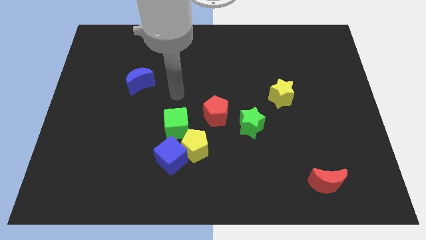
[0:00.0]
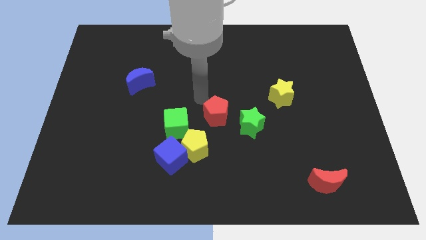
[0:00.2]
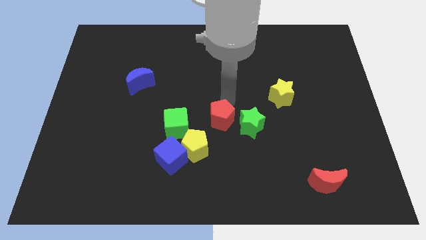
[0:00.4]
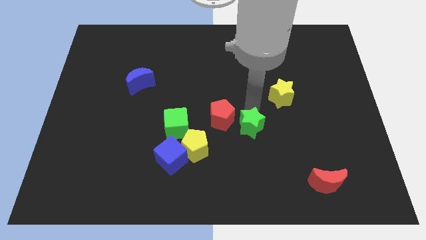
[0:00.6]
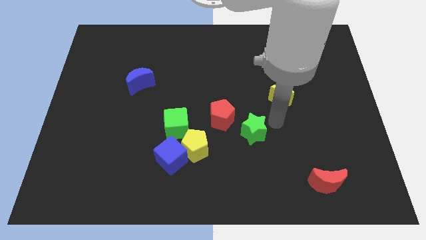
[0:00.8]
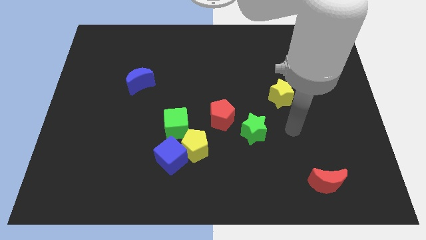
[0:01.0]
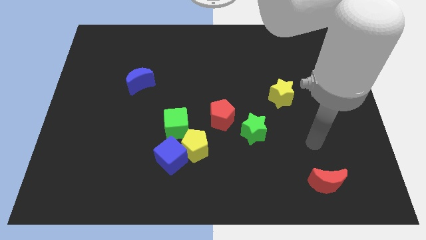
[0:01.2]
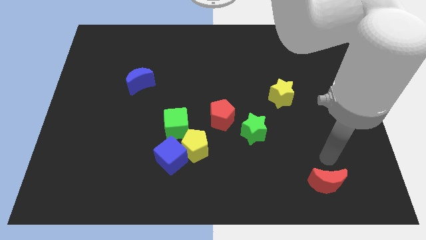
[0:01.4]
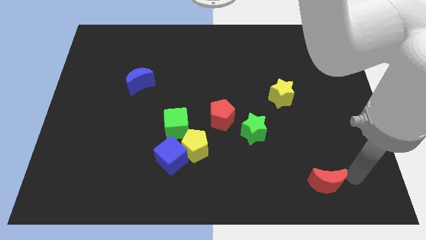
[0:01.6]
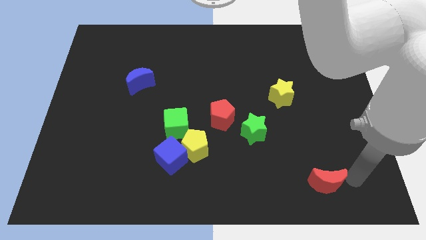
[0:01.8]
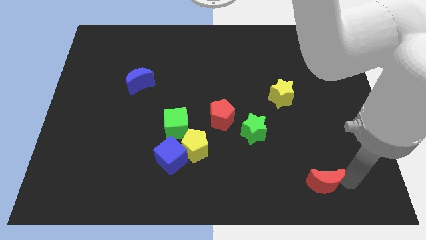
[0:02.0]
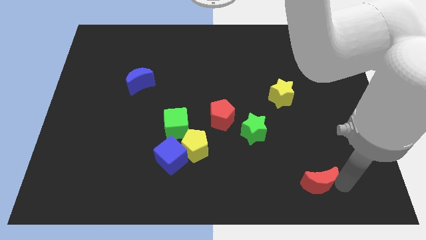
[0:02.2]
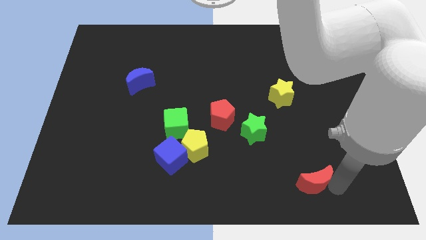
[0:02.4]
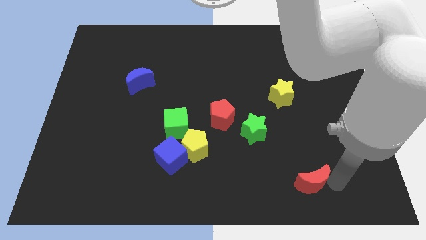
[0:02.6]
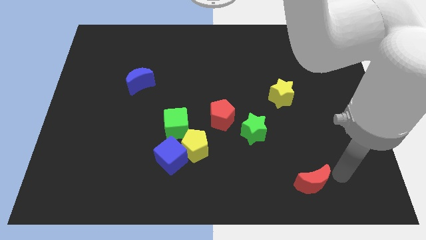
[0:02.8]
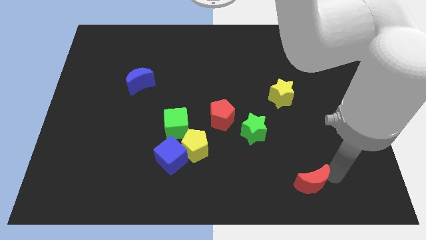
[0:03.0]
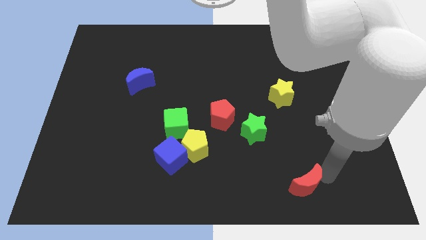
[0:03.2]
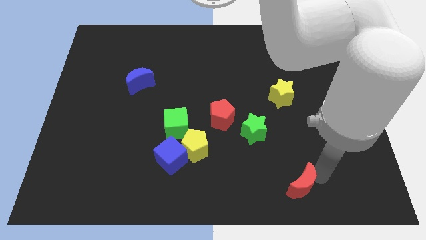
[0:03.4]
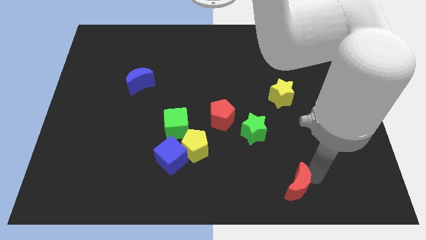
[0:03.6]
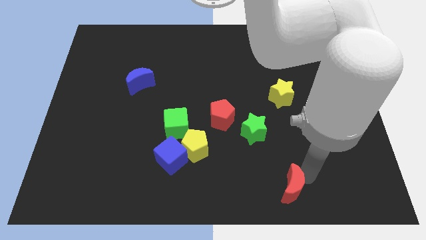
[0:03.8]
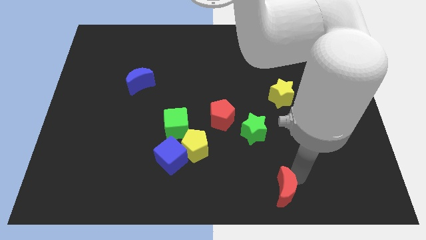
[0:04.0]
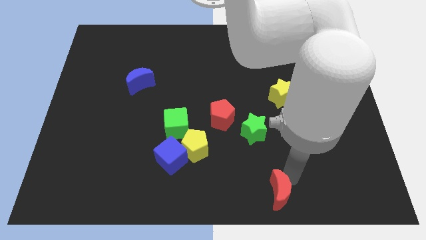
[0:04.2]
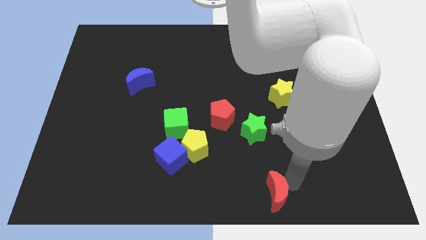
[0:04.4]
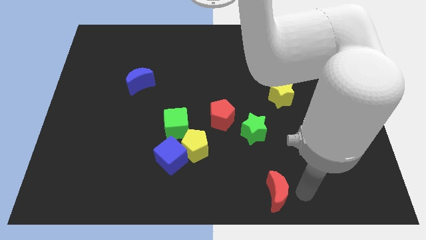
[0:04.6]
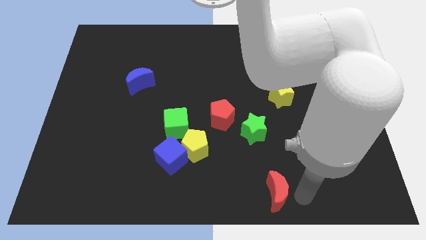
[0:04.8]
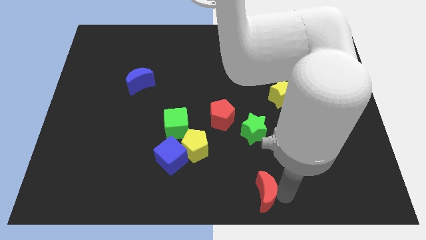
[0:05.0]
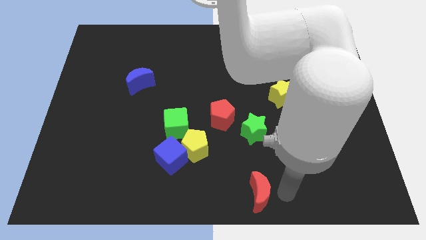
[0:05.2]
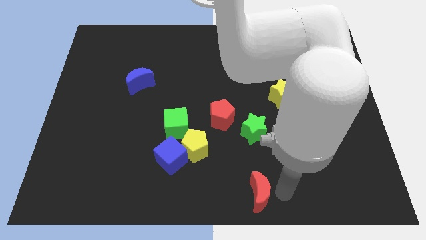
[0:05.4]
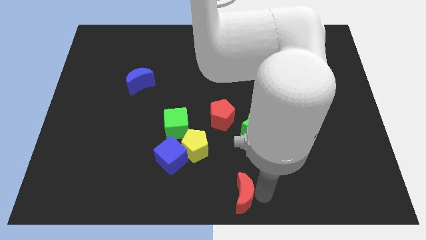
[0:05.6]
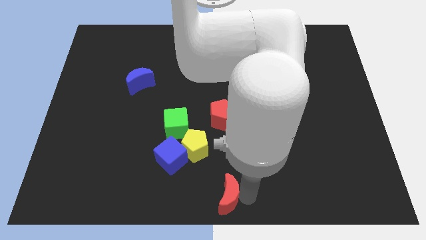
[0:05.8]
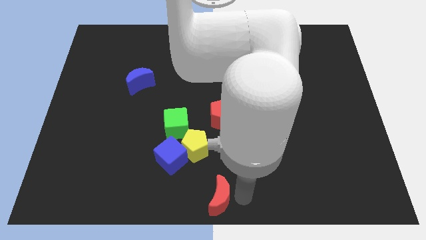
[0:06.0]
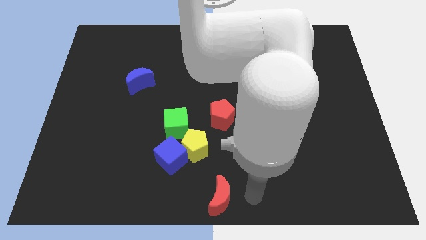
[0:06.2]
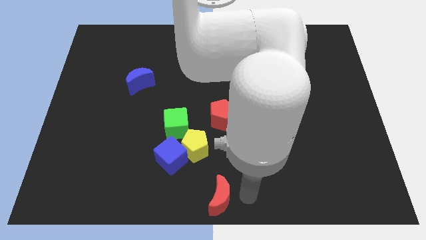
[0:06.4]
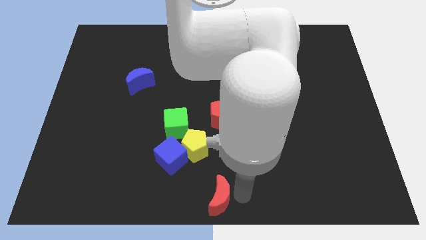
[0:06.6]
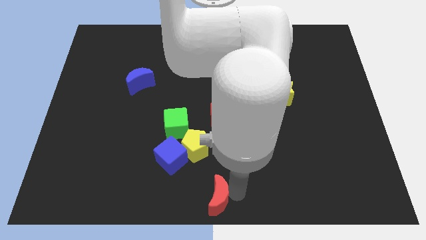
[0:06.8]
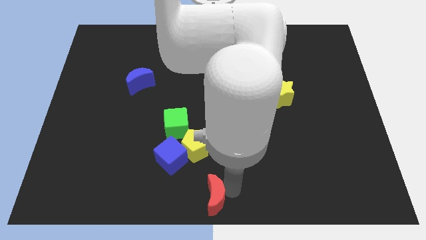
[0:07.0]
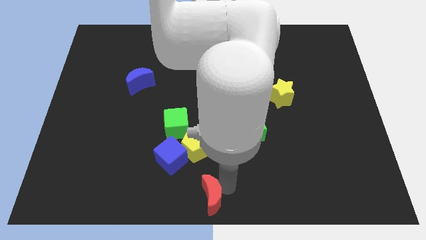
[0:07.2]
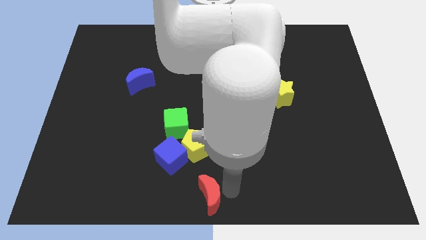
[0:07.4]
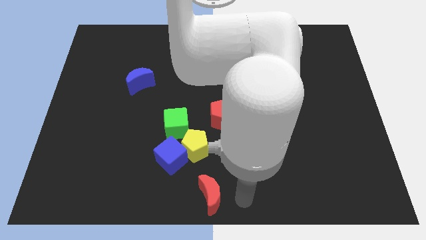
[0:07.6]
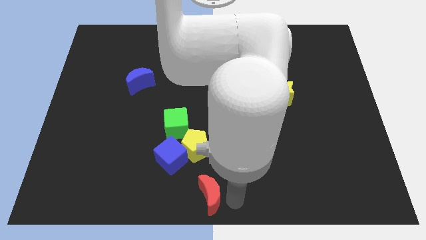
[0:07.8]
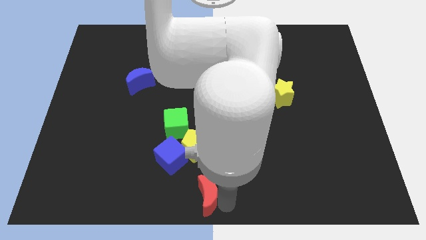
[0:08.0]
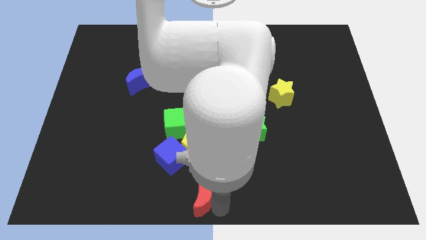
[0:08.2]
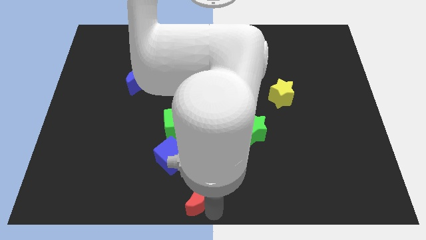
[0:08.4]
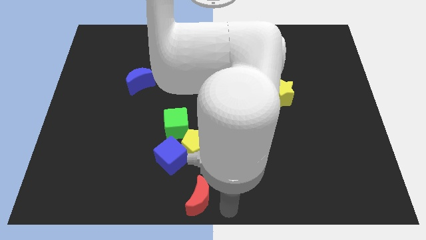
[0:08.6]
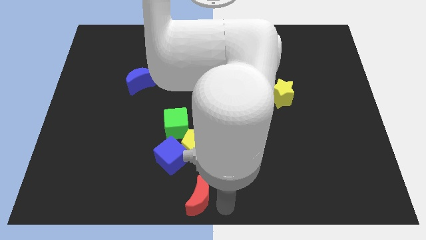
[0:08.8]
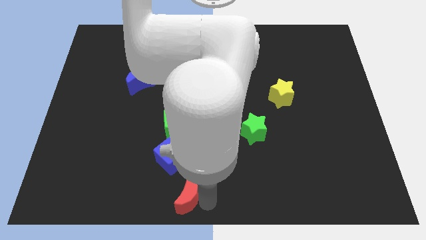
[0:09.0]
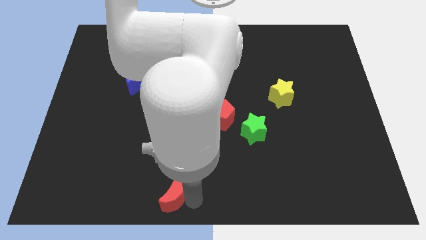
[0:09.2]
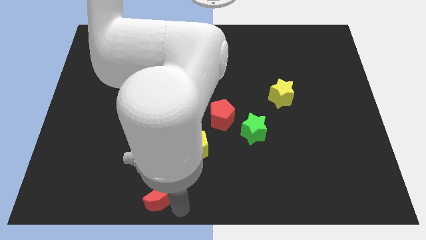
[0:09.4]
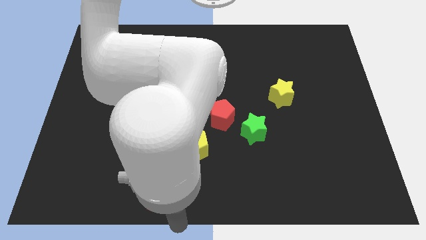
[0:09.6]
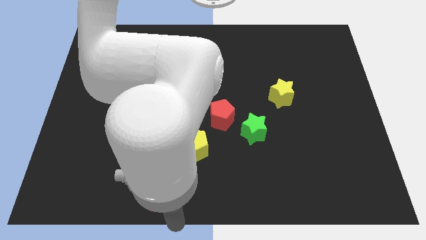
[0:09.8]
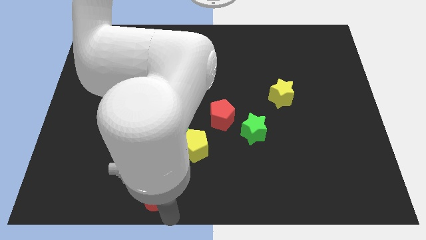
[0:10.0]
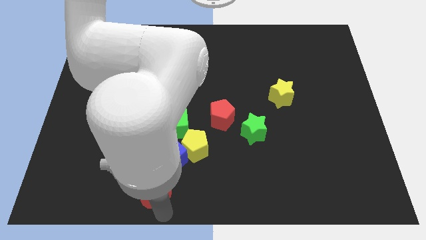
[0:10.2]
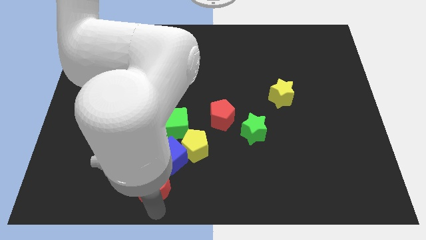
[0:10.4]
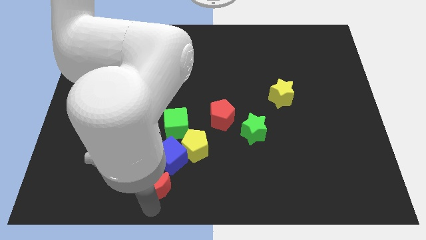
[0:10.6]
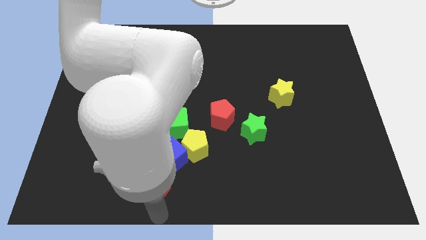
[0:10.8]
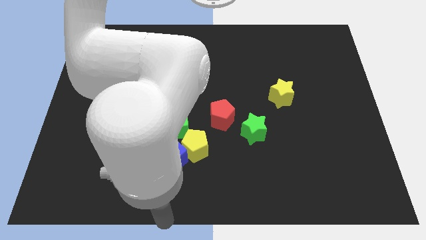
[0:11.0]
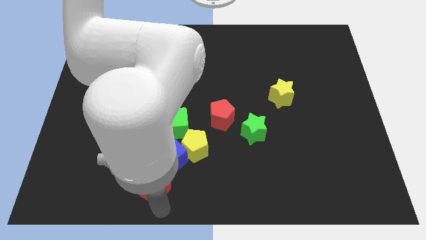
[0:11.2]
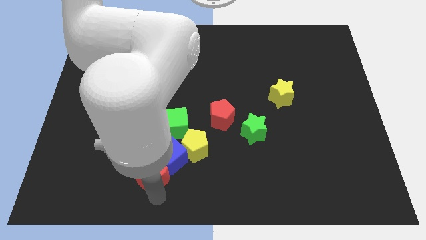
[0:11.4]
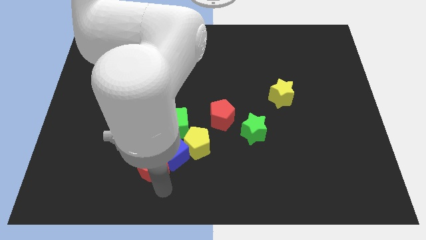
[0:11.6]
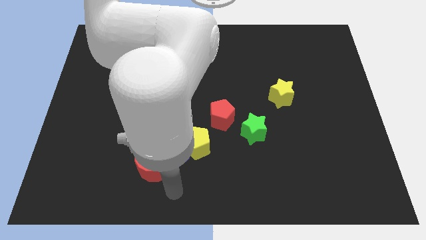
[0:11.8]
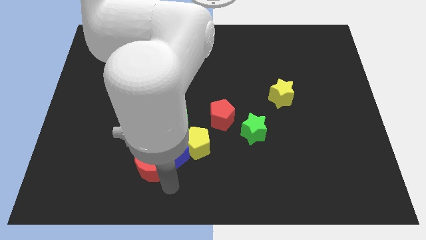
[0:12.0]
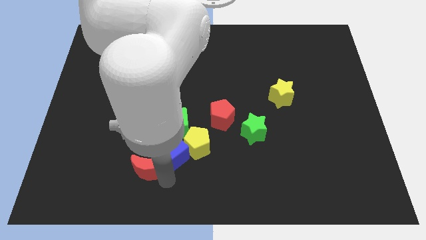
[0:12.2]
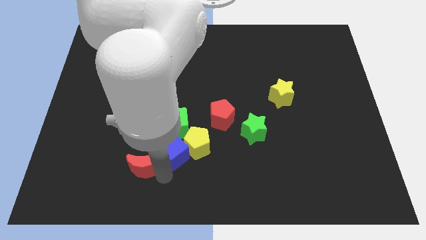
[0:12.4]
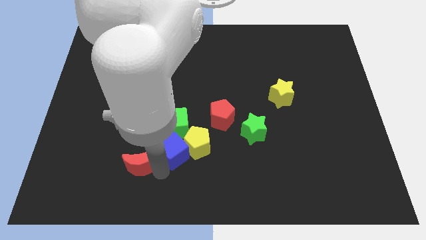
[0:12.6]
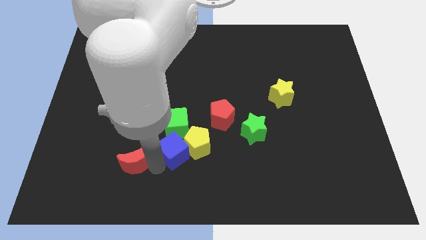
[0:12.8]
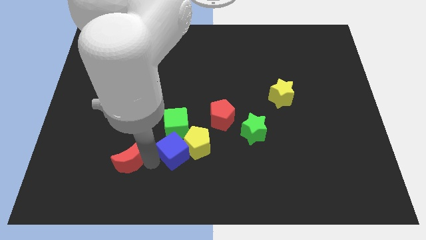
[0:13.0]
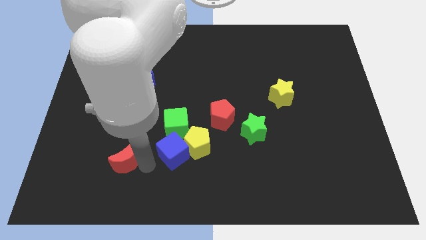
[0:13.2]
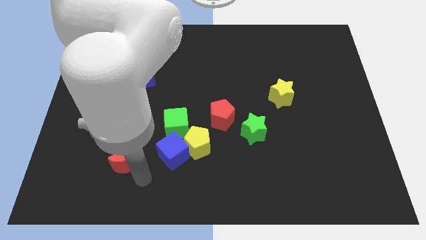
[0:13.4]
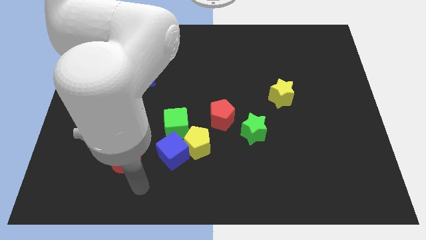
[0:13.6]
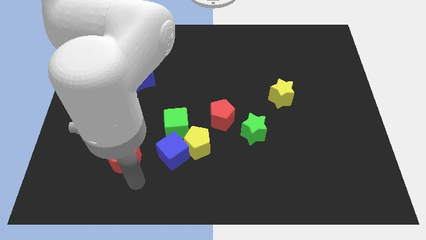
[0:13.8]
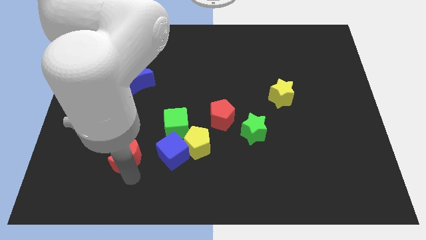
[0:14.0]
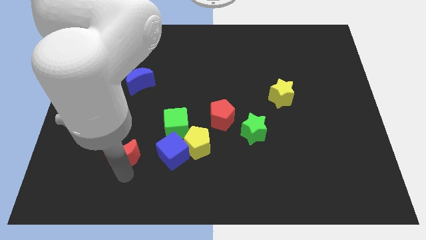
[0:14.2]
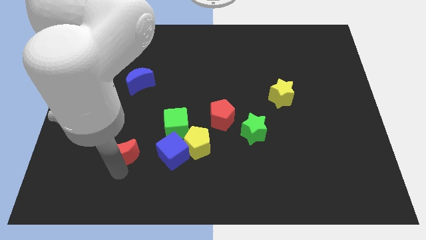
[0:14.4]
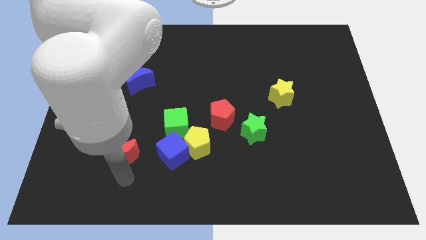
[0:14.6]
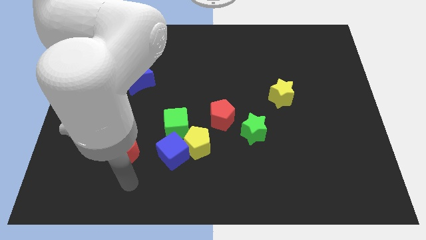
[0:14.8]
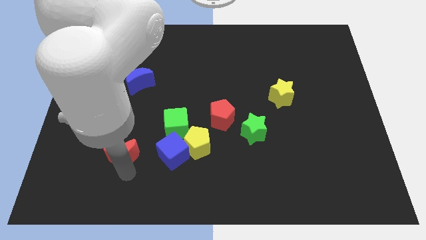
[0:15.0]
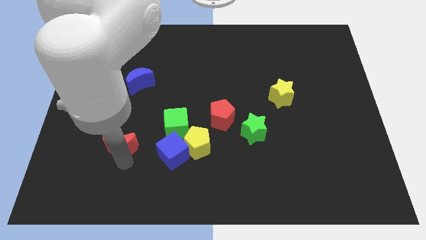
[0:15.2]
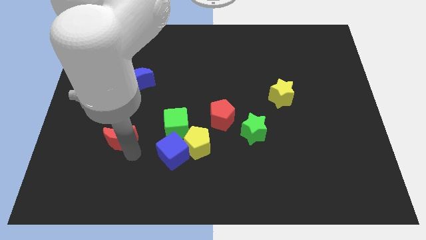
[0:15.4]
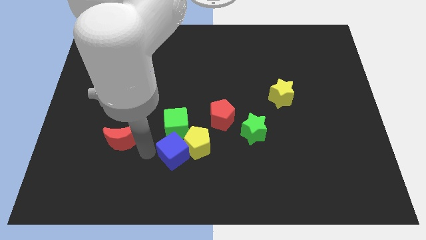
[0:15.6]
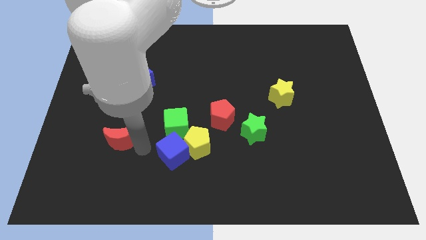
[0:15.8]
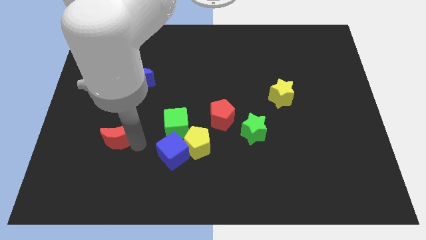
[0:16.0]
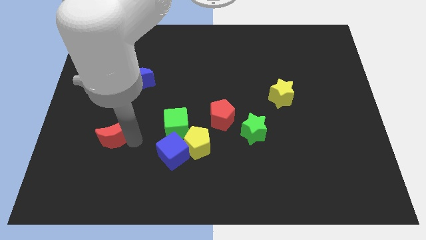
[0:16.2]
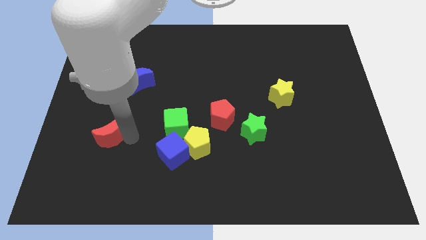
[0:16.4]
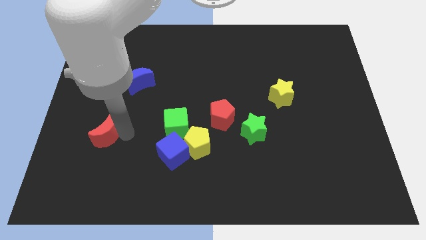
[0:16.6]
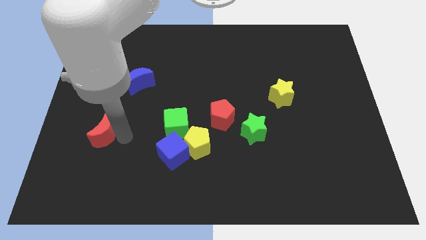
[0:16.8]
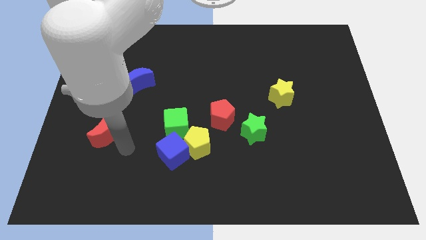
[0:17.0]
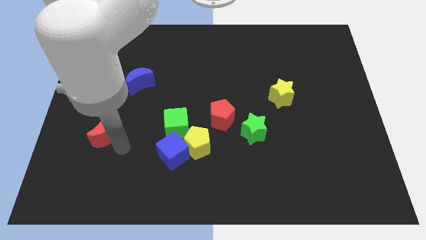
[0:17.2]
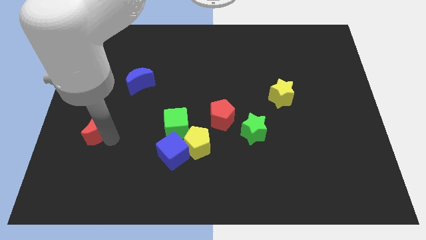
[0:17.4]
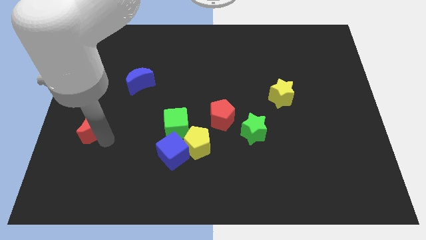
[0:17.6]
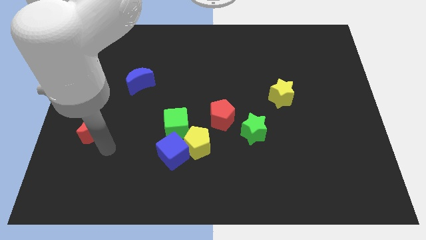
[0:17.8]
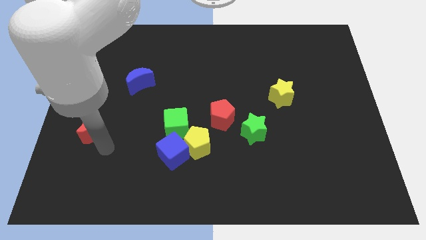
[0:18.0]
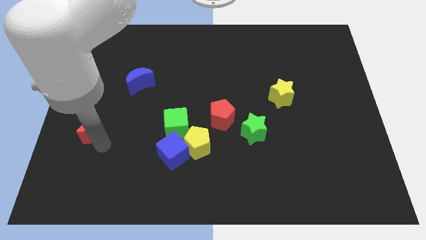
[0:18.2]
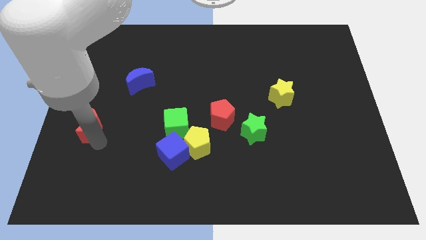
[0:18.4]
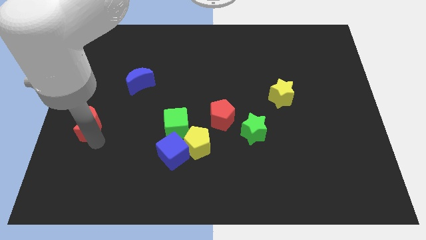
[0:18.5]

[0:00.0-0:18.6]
put the red moon to the left side
